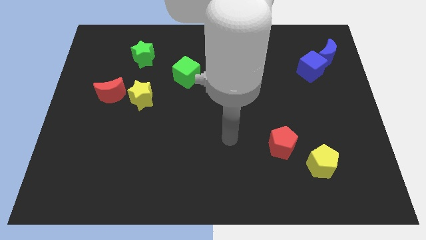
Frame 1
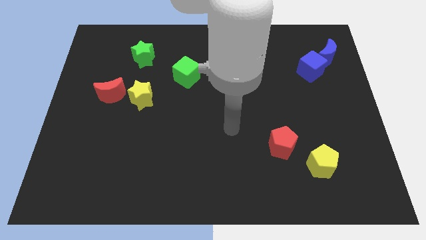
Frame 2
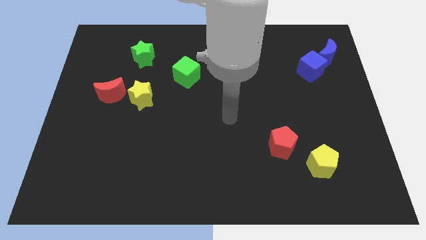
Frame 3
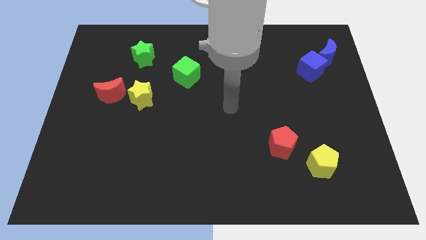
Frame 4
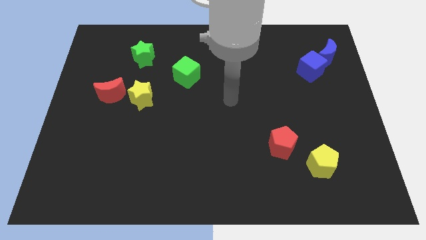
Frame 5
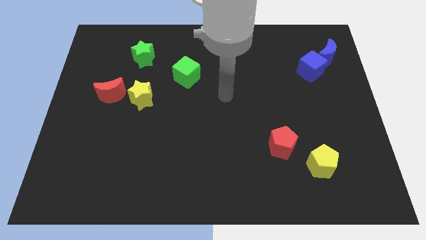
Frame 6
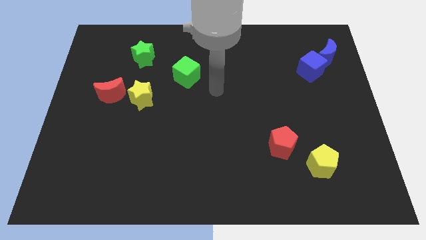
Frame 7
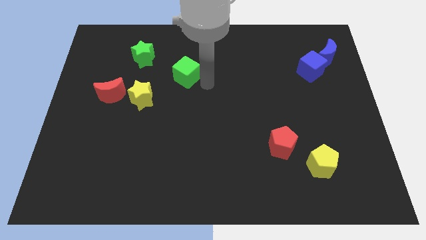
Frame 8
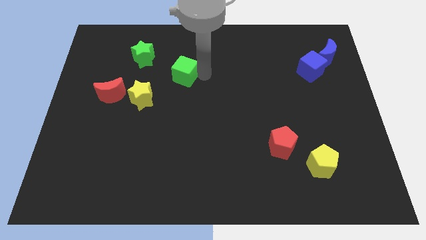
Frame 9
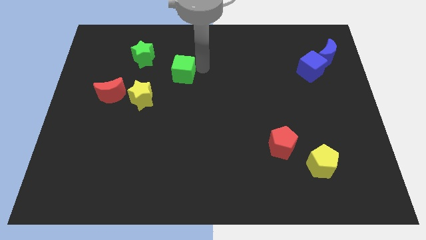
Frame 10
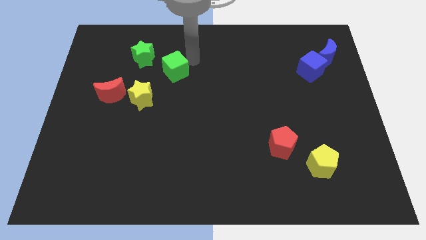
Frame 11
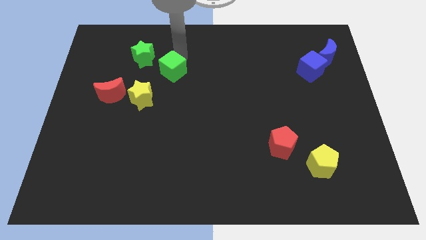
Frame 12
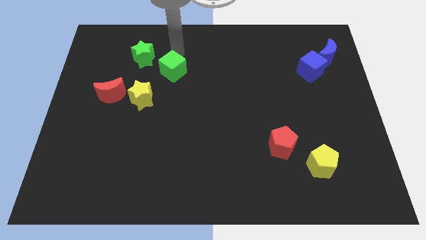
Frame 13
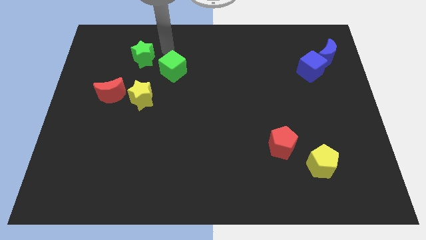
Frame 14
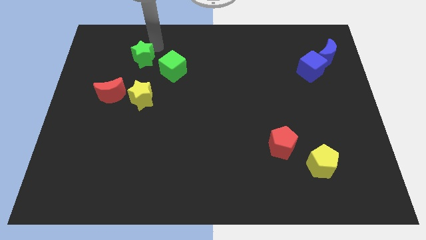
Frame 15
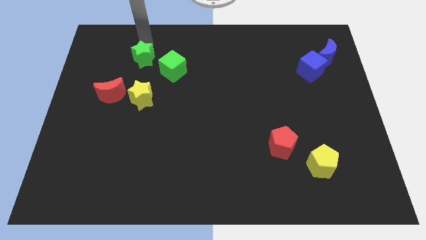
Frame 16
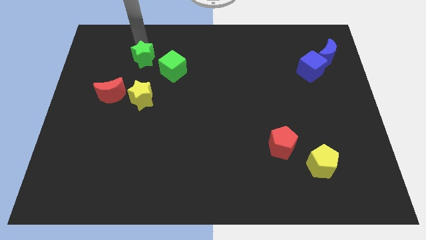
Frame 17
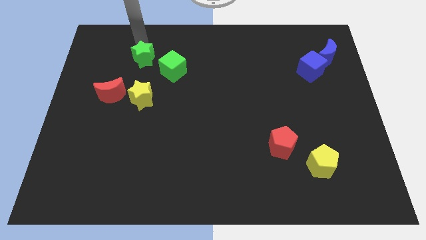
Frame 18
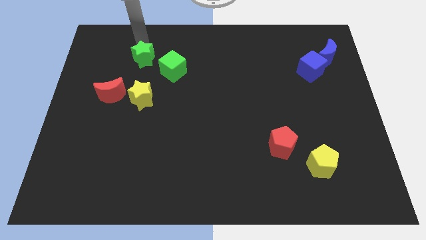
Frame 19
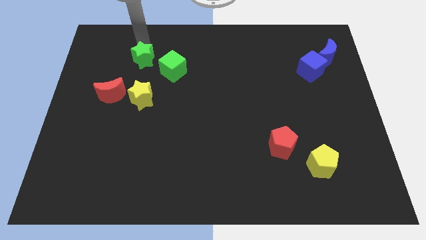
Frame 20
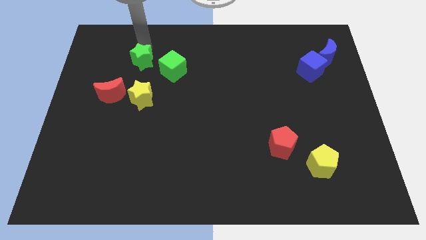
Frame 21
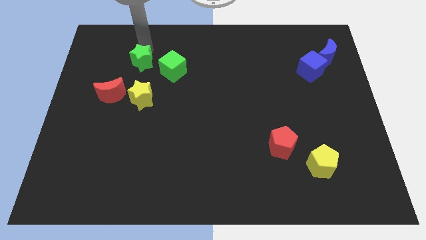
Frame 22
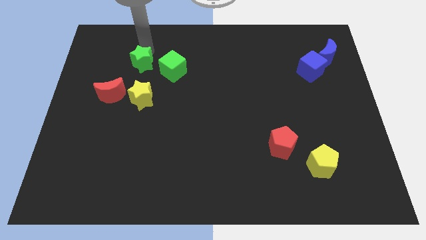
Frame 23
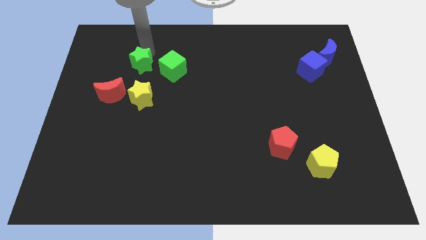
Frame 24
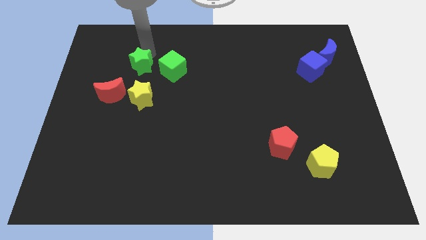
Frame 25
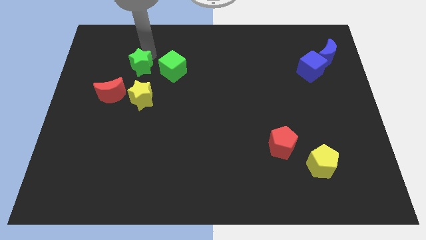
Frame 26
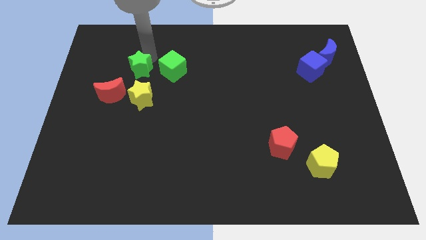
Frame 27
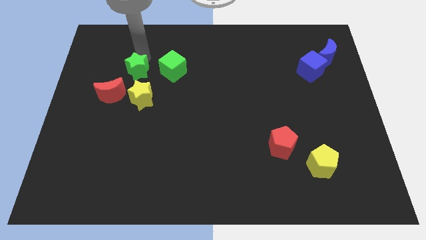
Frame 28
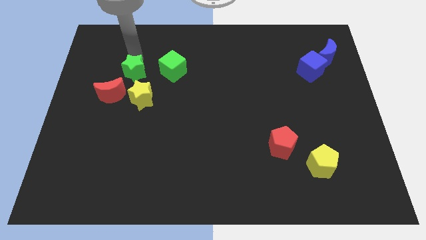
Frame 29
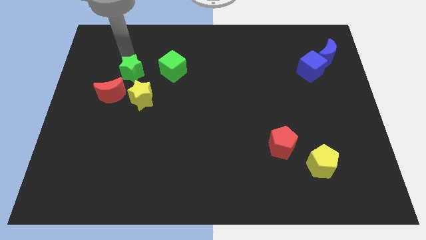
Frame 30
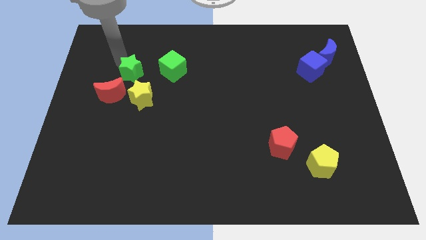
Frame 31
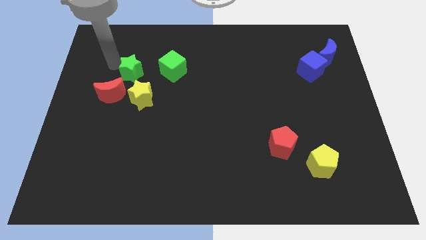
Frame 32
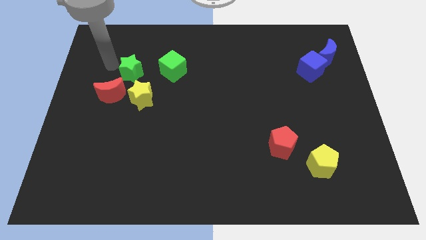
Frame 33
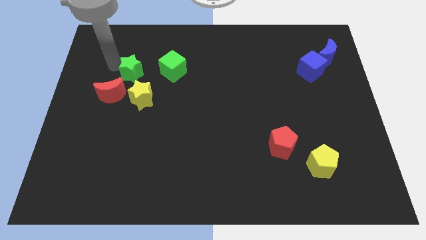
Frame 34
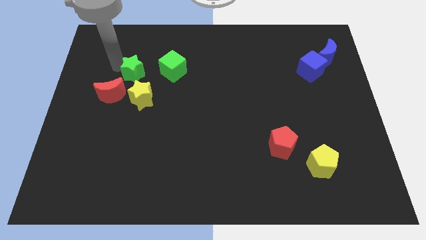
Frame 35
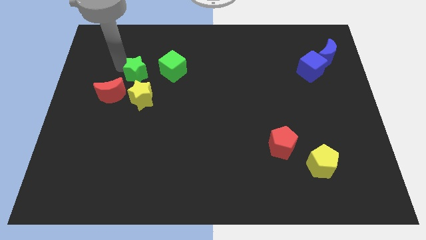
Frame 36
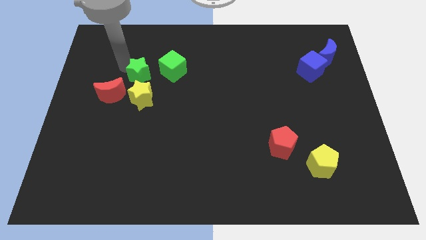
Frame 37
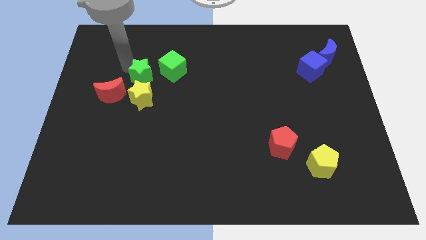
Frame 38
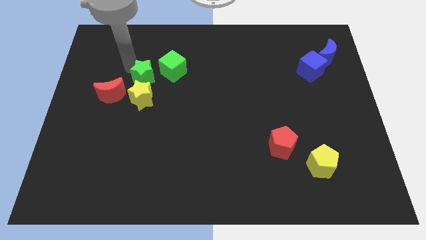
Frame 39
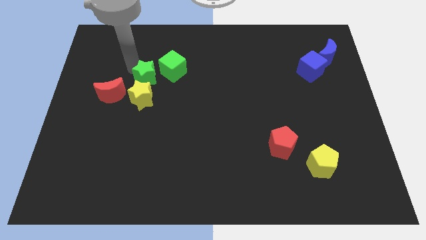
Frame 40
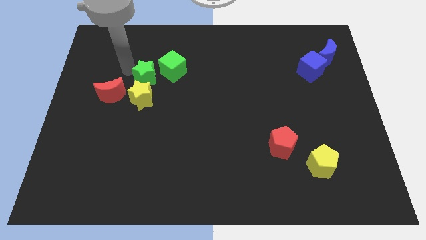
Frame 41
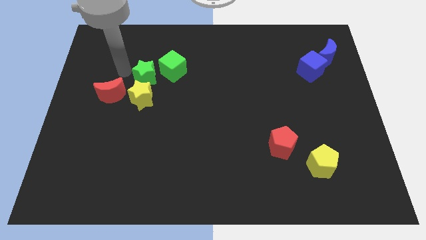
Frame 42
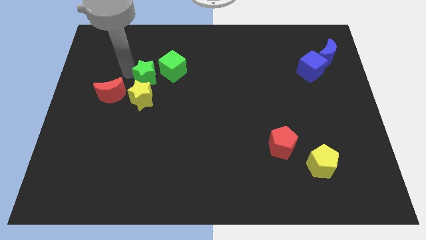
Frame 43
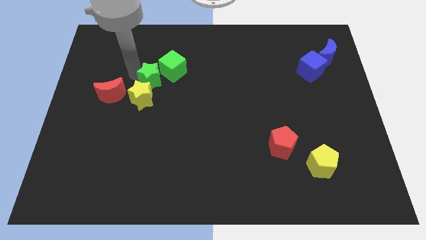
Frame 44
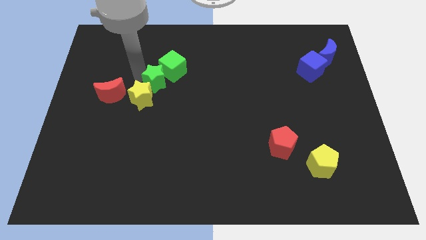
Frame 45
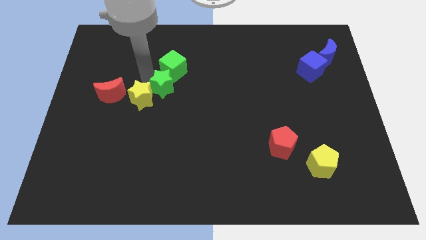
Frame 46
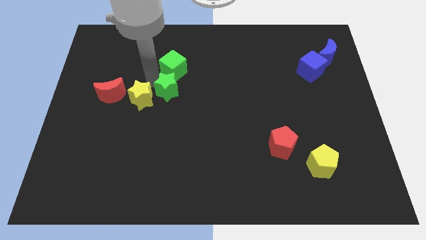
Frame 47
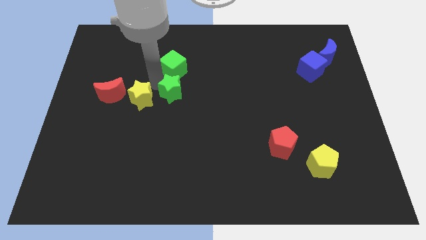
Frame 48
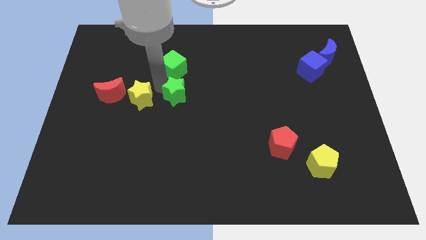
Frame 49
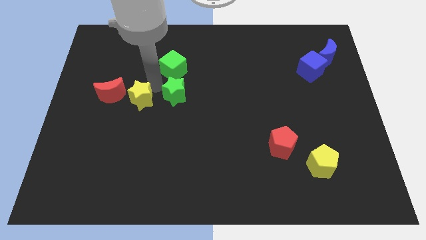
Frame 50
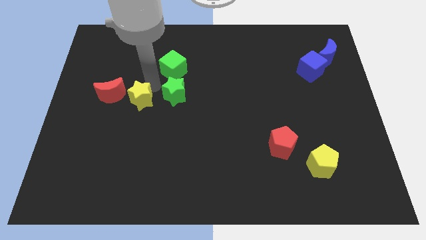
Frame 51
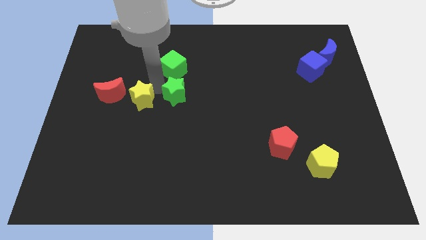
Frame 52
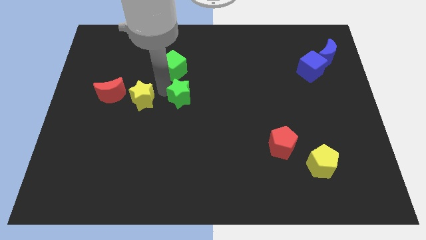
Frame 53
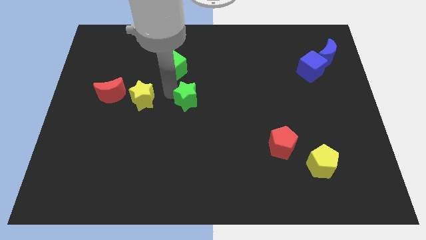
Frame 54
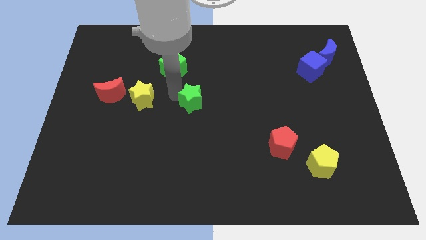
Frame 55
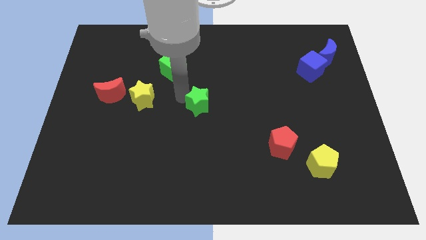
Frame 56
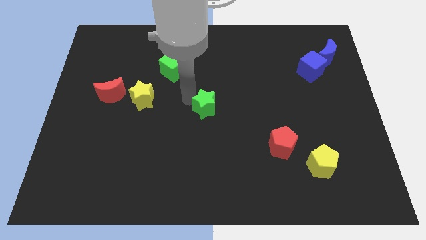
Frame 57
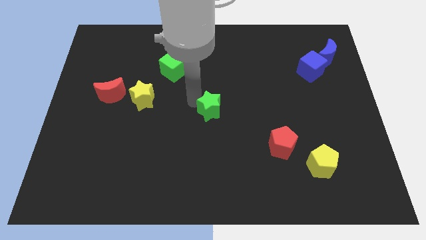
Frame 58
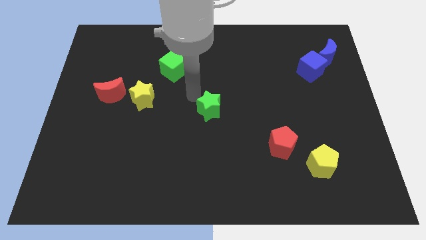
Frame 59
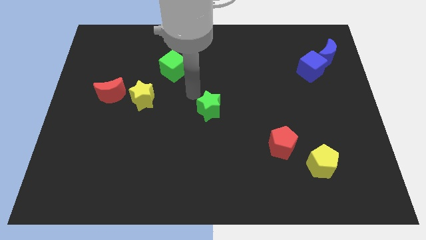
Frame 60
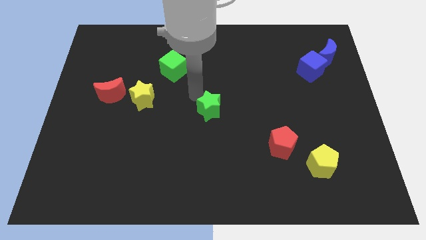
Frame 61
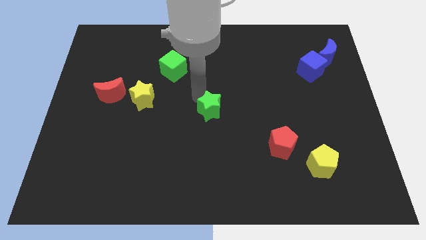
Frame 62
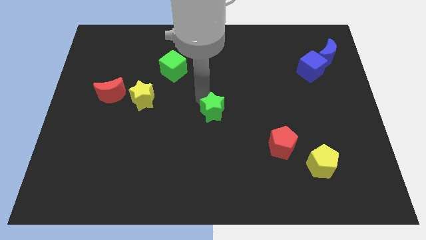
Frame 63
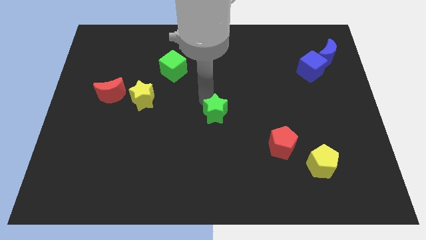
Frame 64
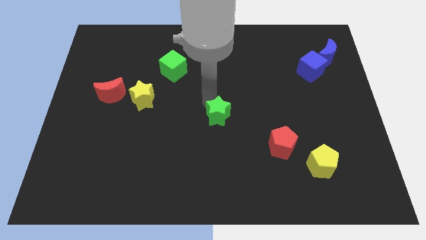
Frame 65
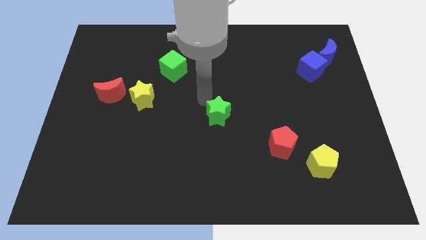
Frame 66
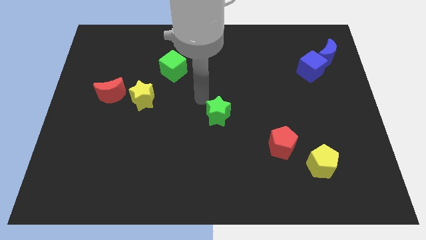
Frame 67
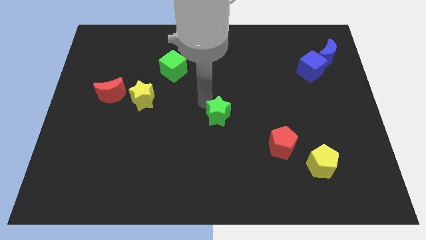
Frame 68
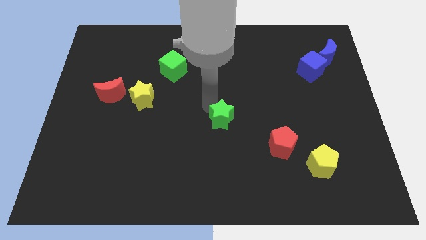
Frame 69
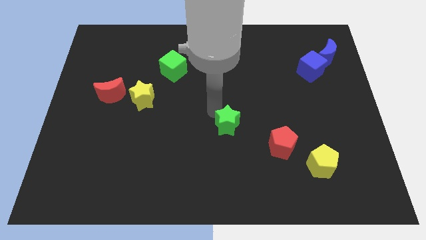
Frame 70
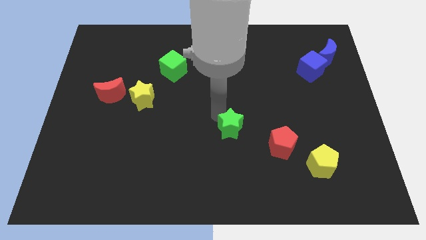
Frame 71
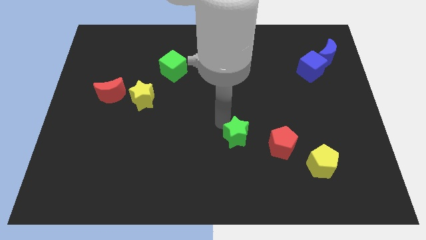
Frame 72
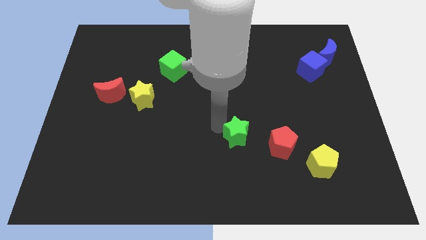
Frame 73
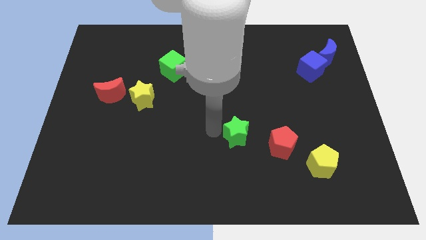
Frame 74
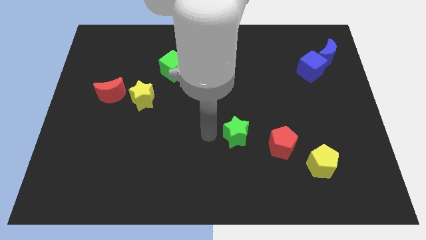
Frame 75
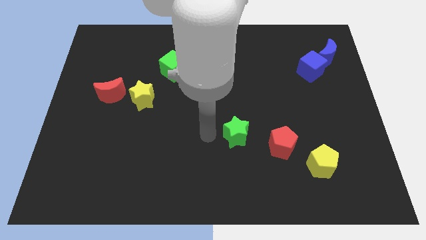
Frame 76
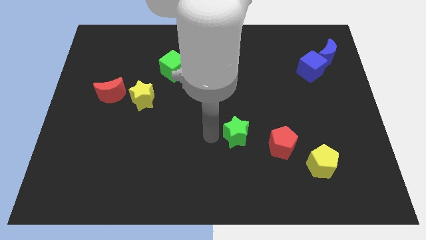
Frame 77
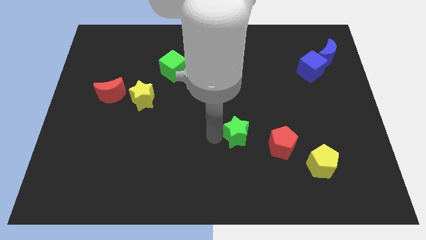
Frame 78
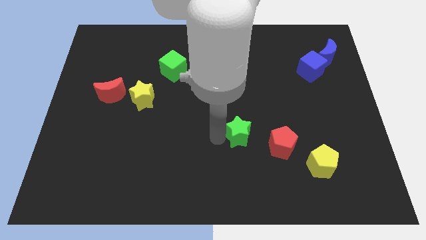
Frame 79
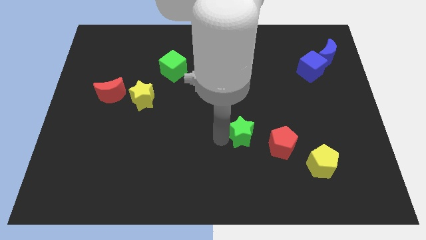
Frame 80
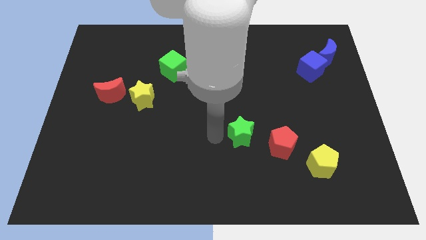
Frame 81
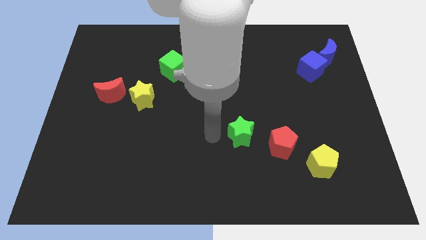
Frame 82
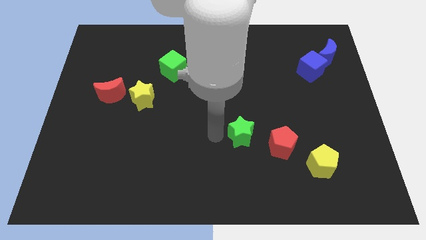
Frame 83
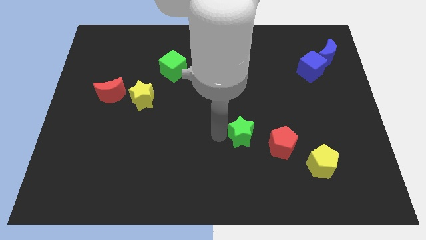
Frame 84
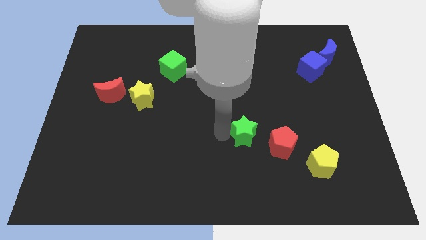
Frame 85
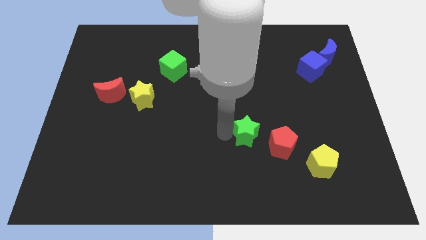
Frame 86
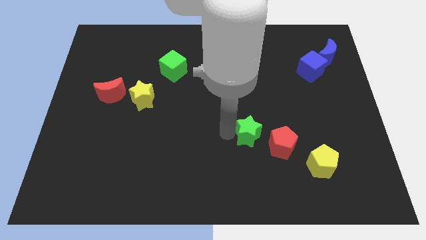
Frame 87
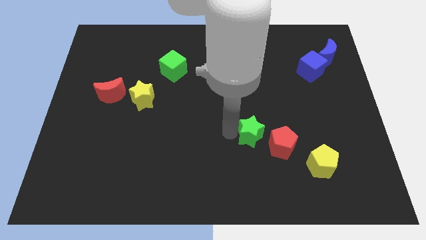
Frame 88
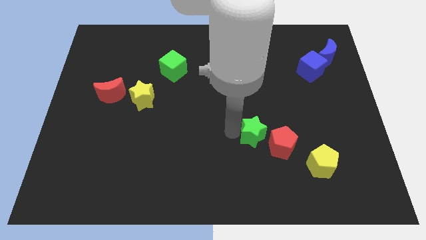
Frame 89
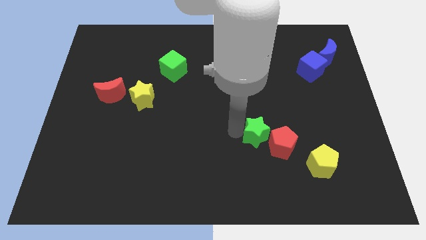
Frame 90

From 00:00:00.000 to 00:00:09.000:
put the green star towards the red pentagon
